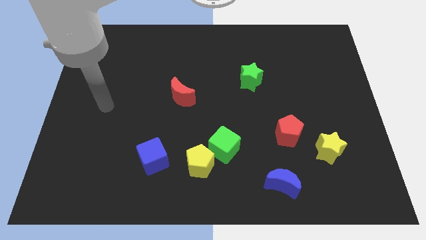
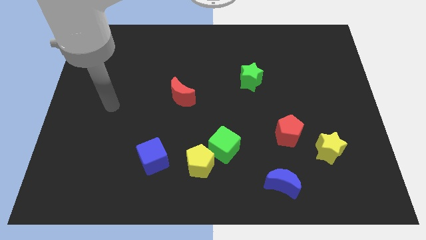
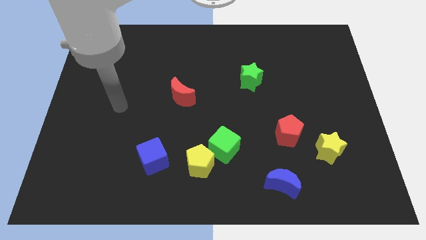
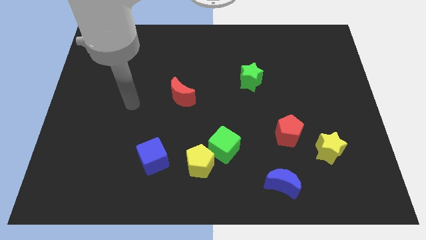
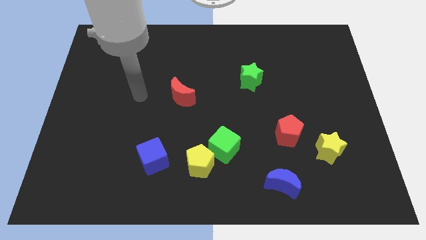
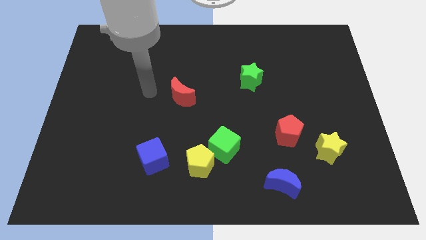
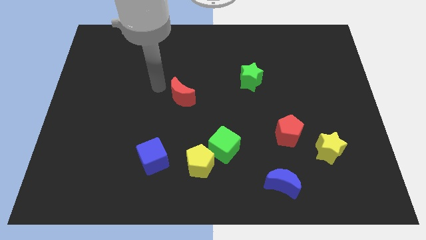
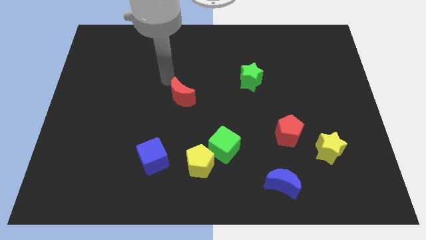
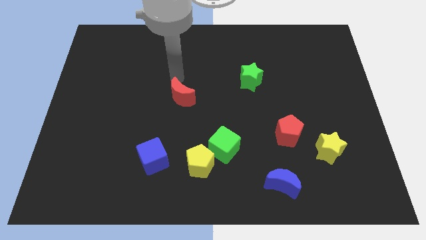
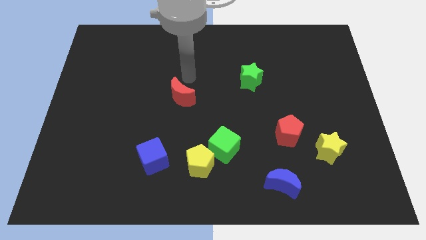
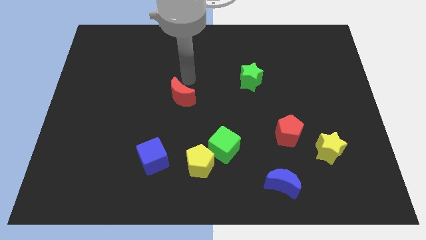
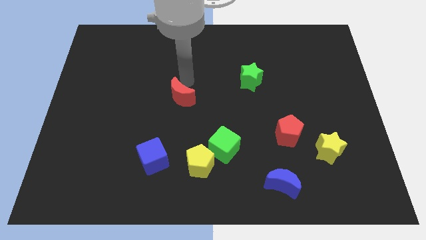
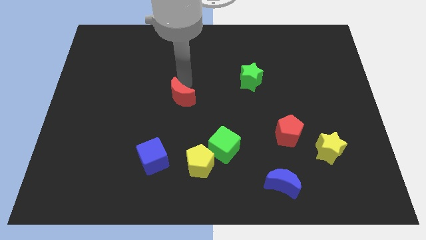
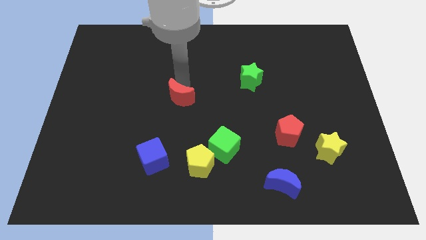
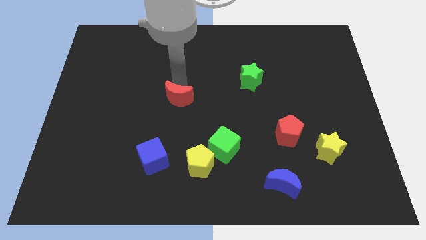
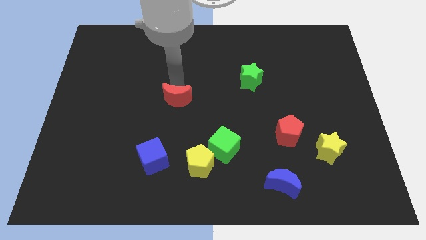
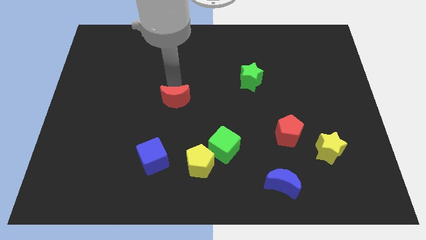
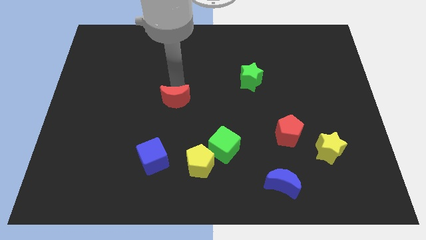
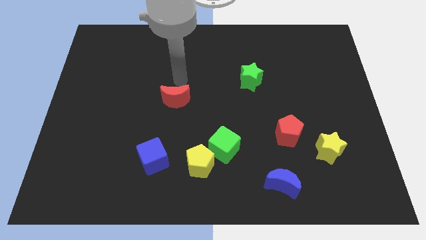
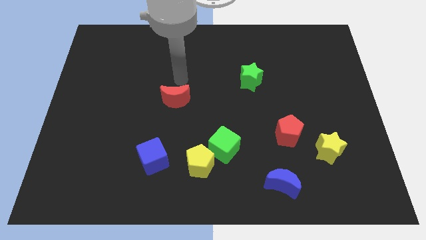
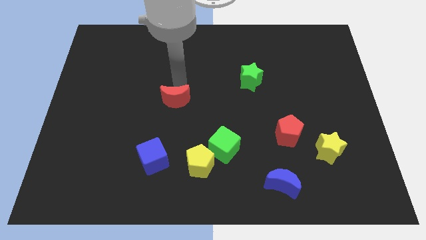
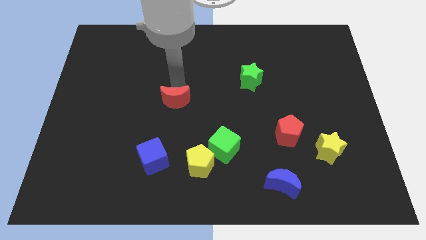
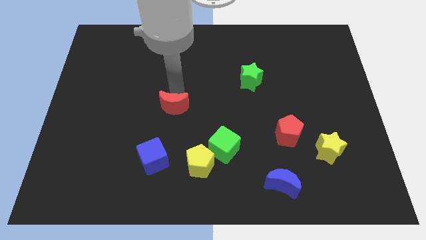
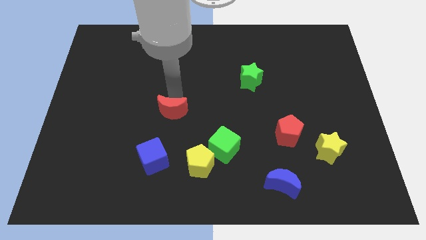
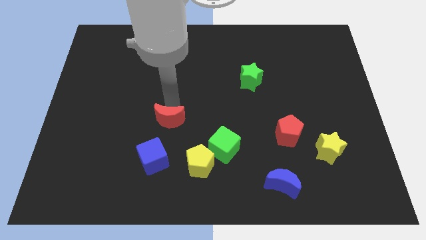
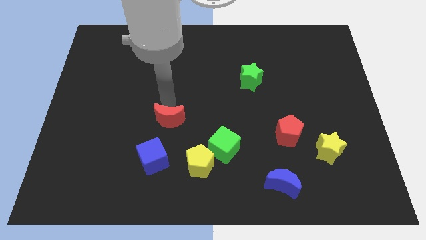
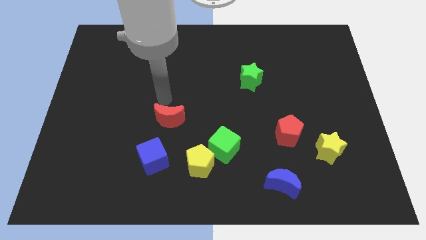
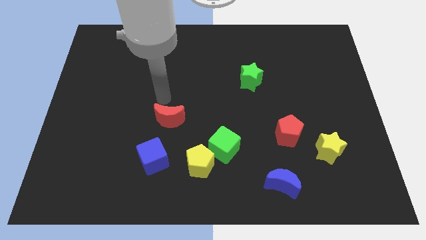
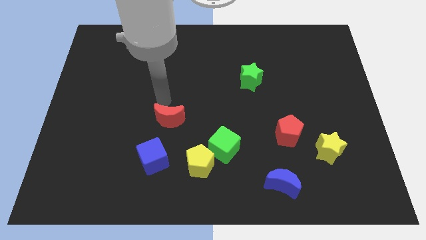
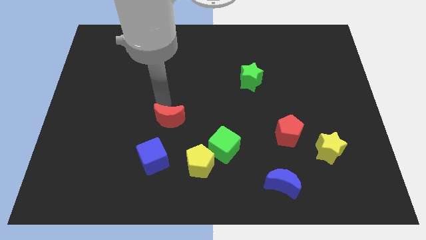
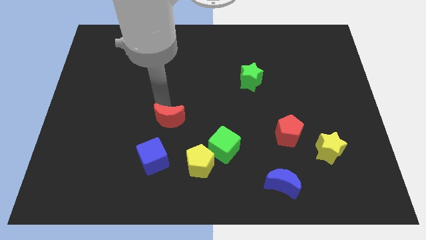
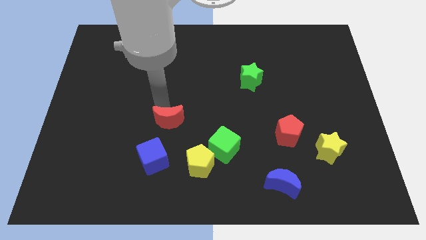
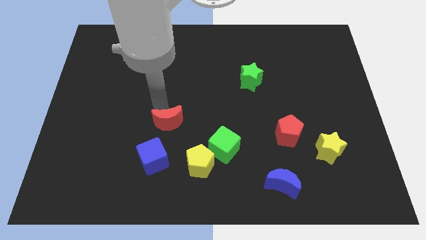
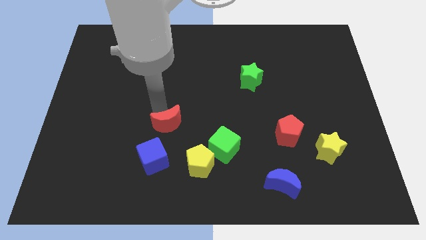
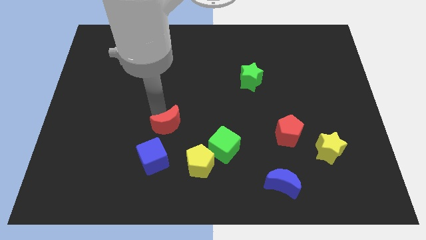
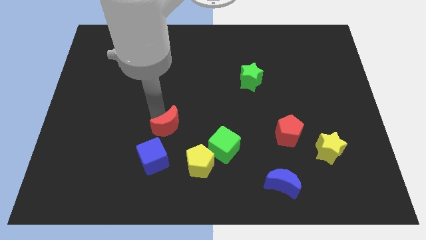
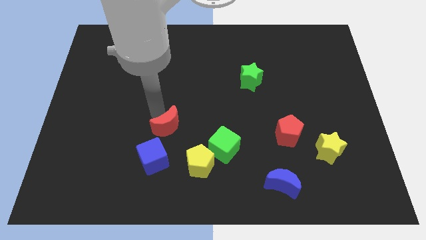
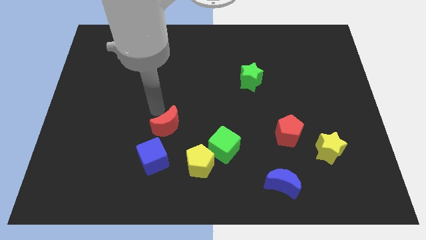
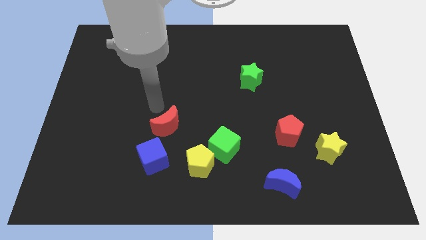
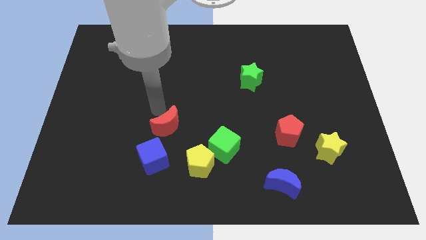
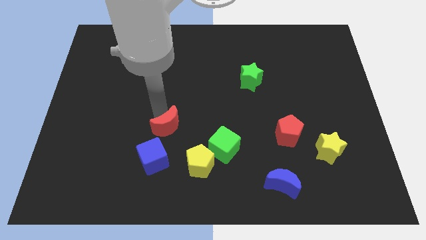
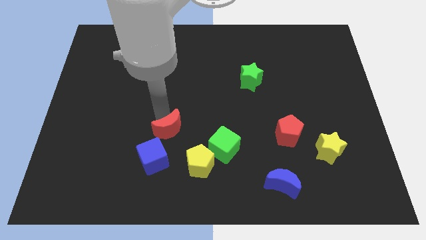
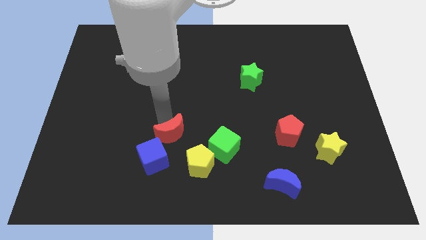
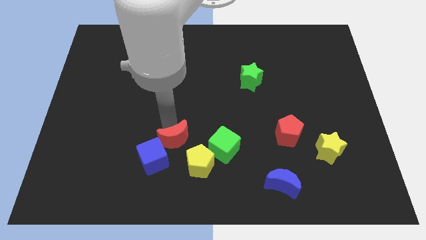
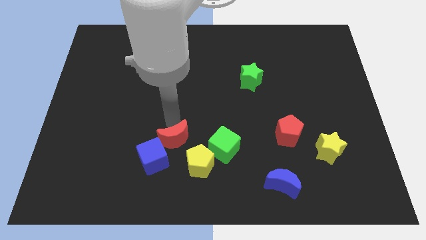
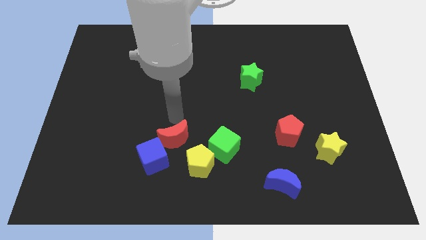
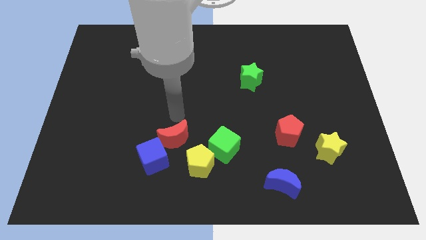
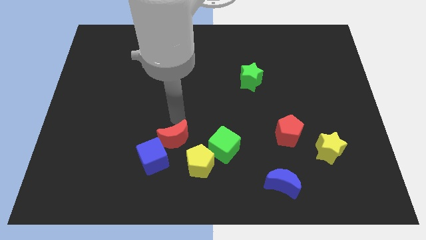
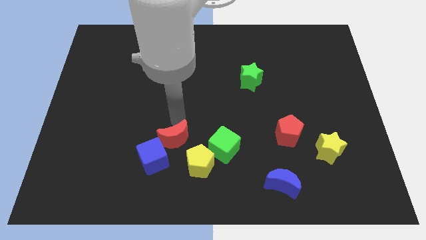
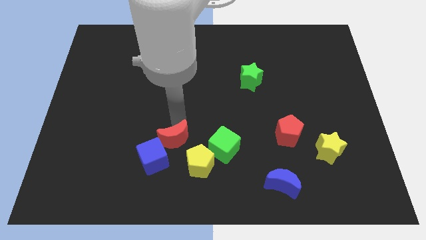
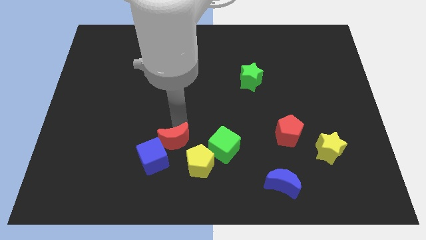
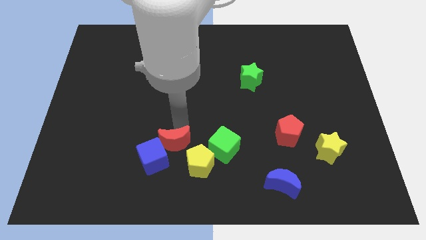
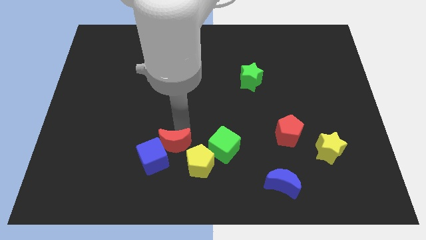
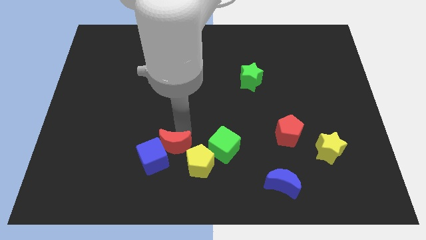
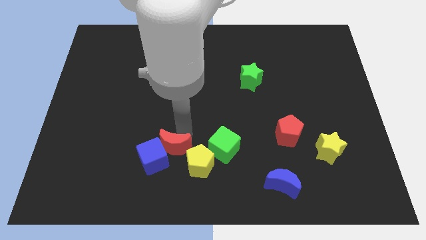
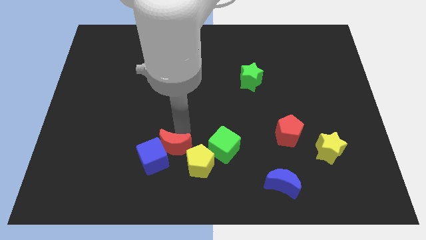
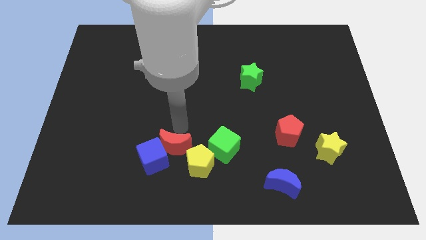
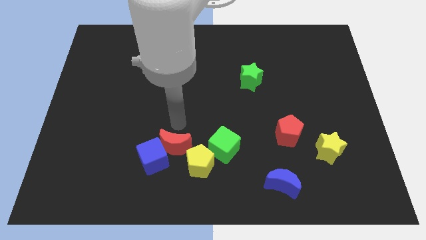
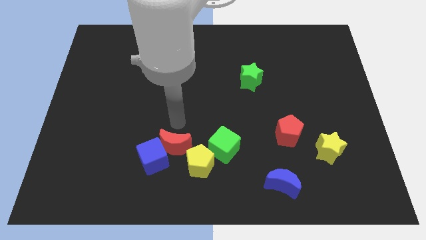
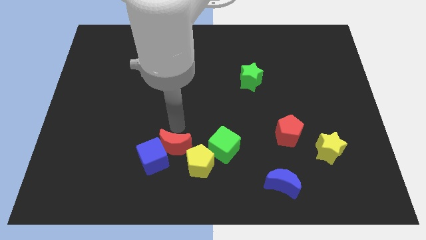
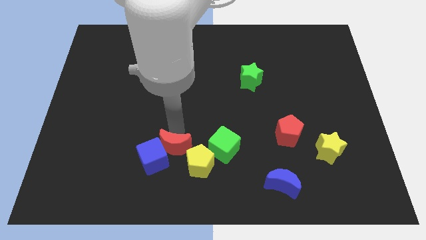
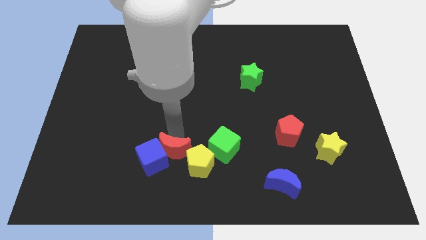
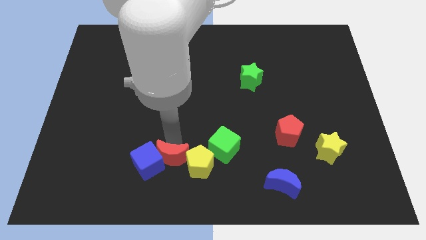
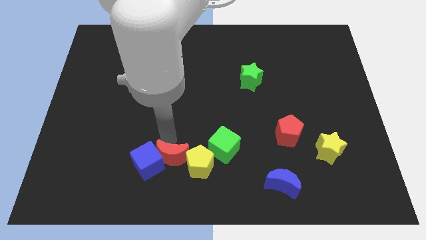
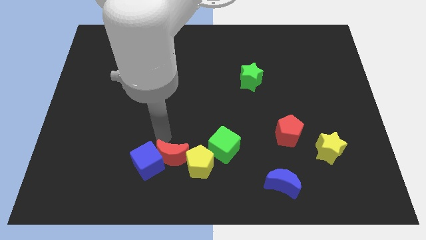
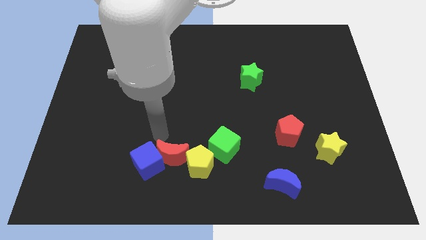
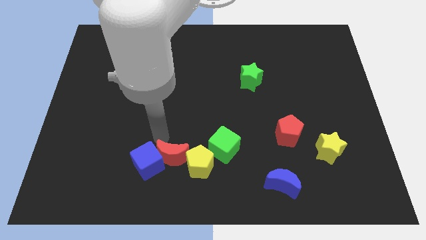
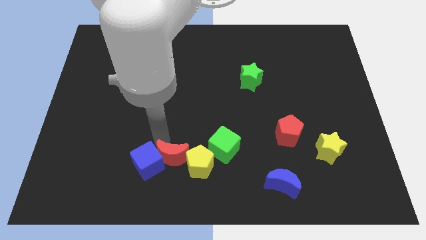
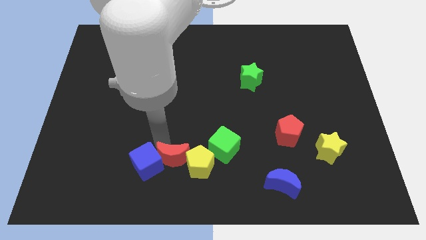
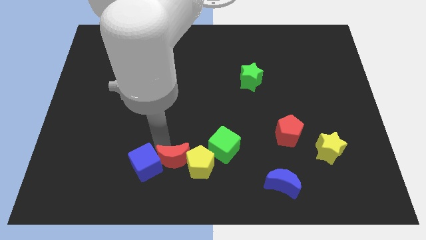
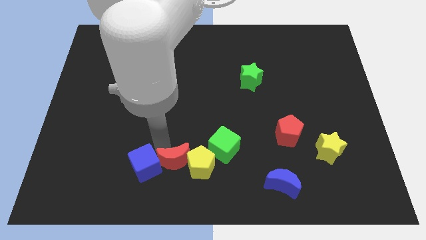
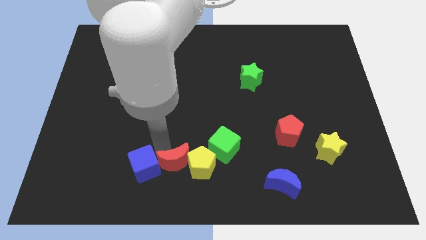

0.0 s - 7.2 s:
push the red moon to the bottom
